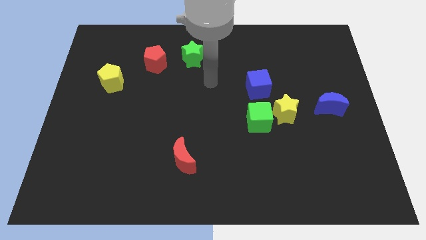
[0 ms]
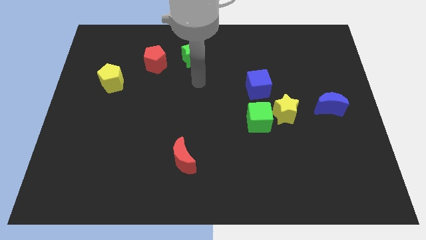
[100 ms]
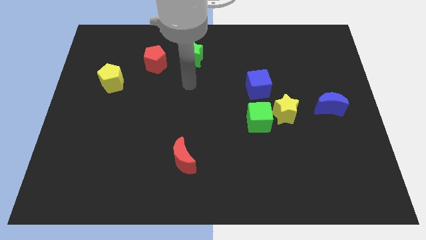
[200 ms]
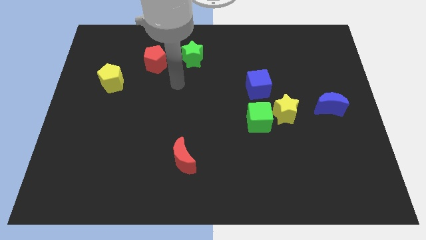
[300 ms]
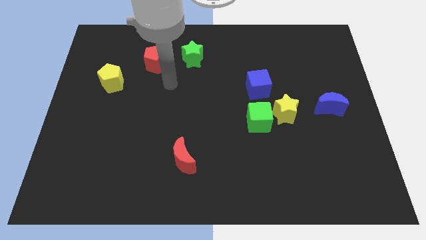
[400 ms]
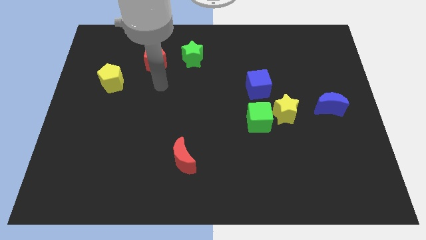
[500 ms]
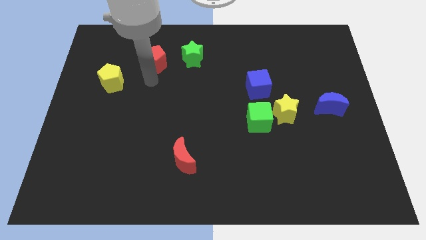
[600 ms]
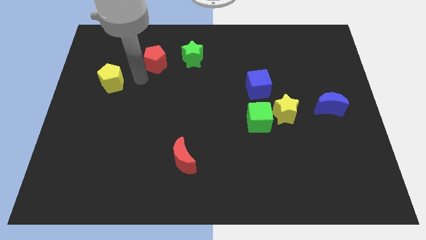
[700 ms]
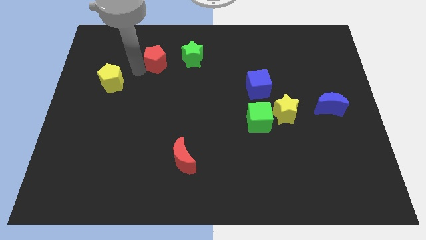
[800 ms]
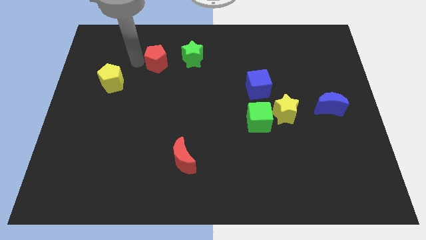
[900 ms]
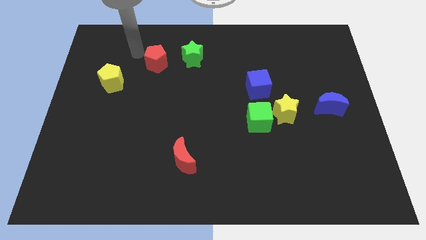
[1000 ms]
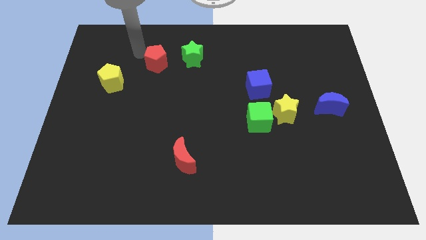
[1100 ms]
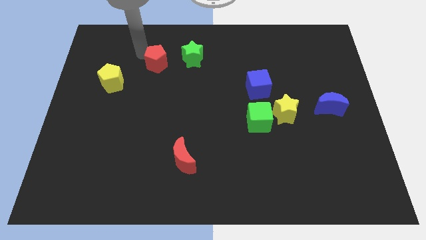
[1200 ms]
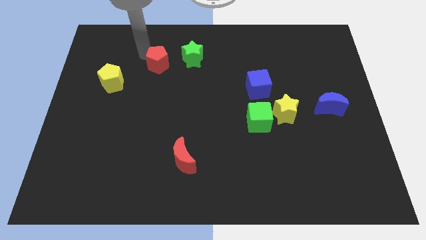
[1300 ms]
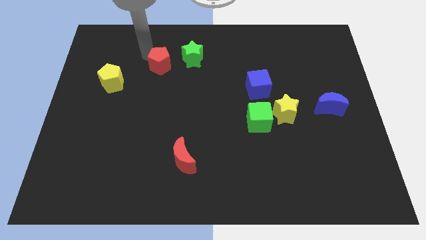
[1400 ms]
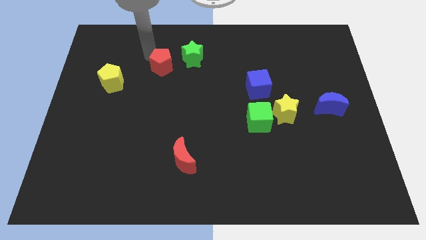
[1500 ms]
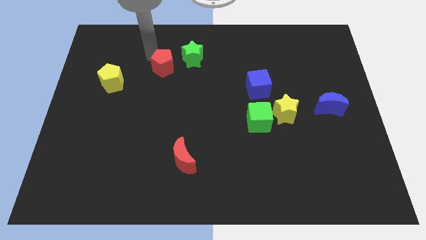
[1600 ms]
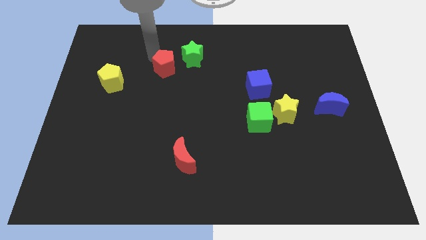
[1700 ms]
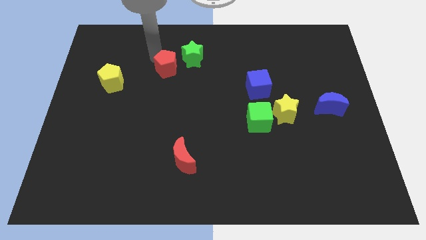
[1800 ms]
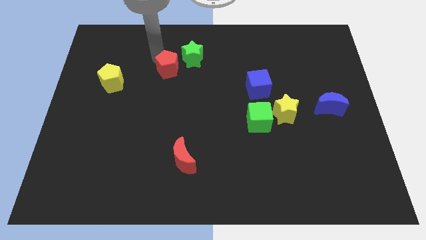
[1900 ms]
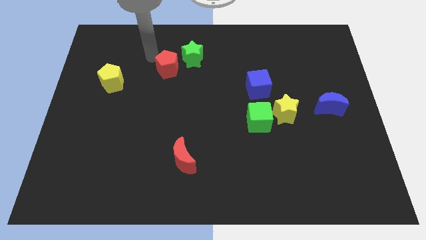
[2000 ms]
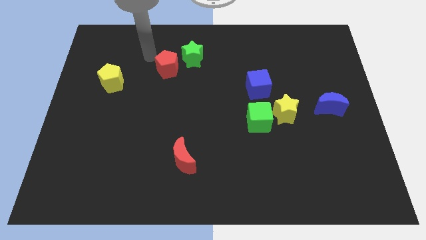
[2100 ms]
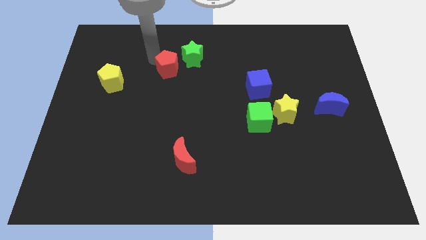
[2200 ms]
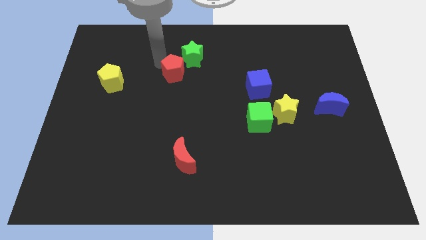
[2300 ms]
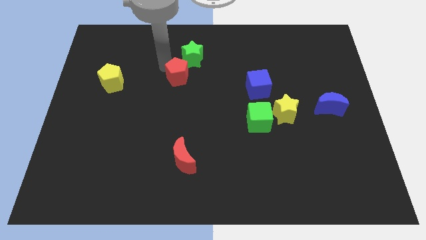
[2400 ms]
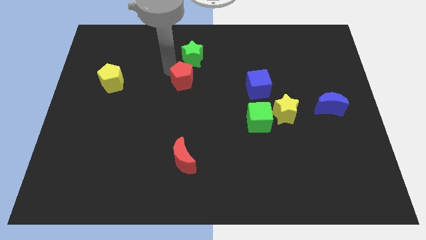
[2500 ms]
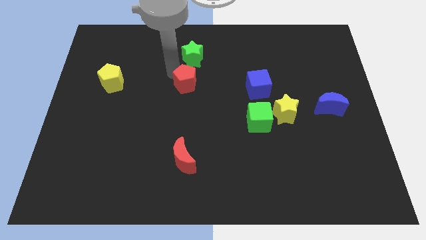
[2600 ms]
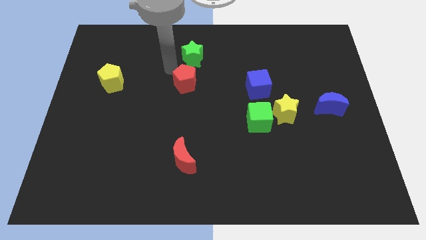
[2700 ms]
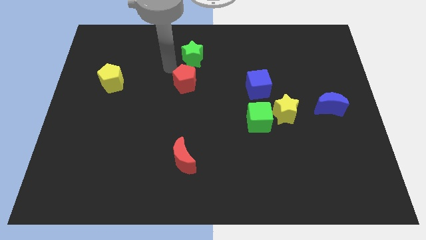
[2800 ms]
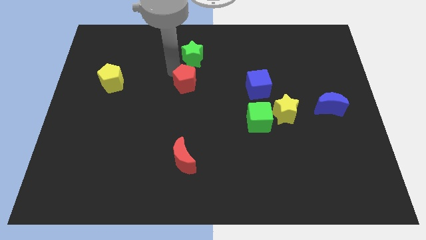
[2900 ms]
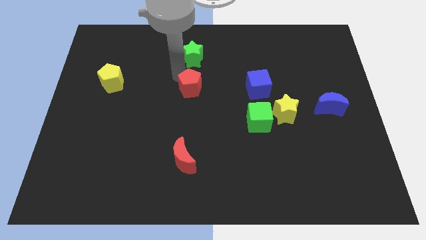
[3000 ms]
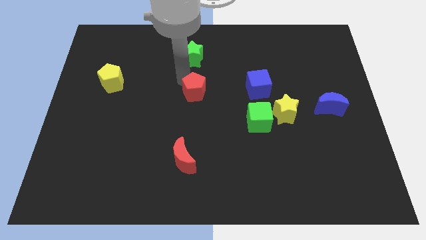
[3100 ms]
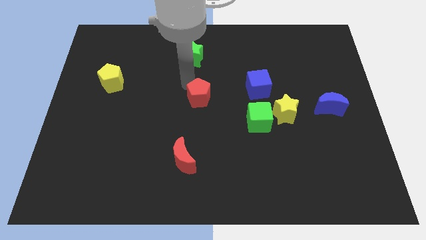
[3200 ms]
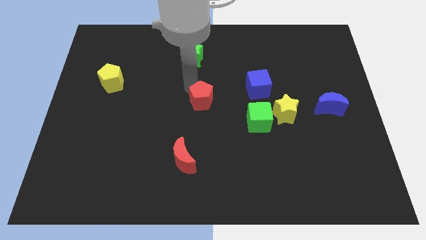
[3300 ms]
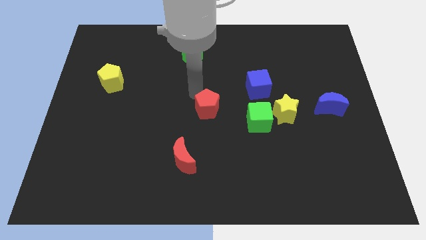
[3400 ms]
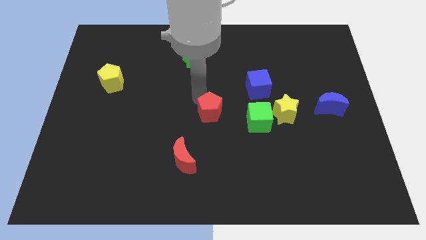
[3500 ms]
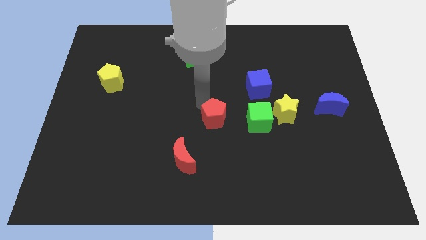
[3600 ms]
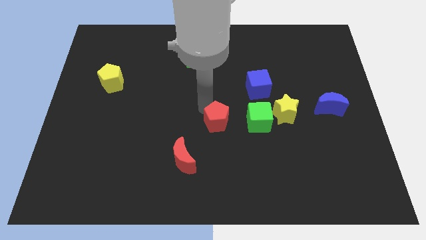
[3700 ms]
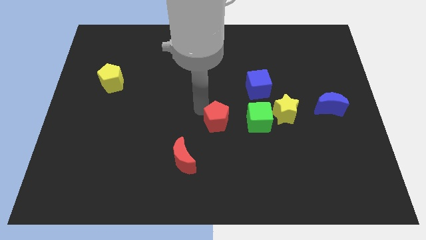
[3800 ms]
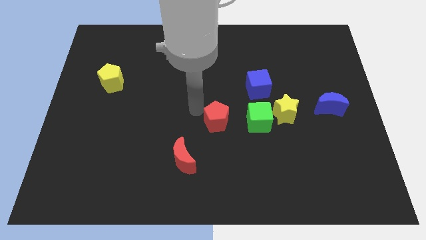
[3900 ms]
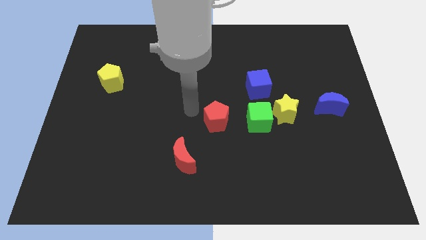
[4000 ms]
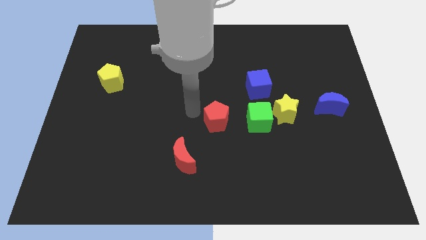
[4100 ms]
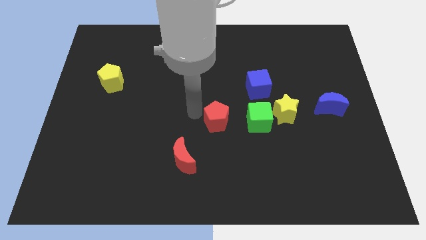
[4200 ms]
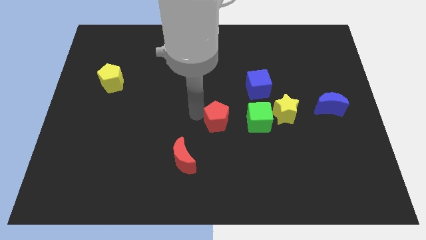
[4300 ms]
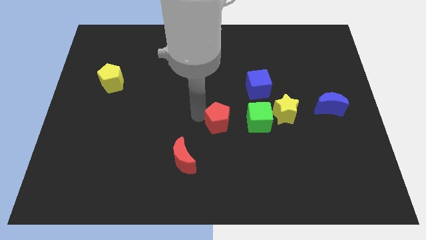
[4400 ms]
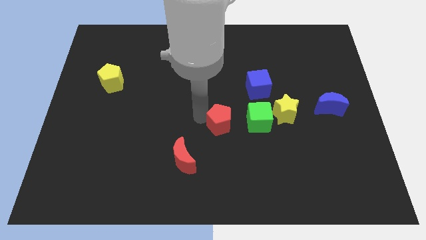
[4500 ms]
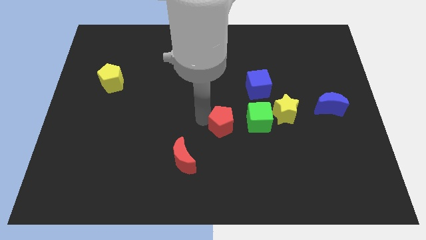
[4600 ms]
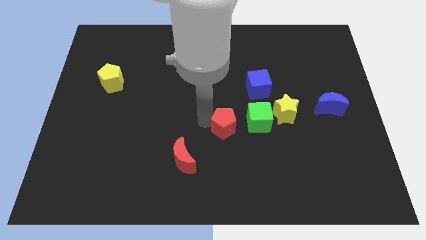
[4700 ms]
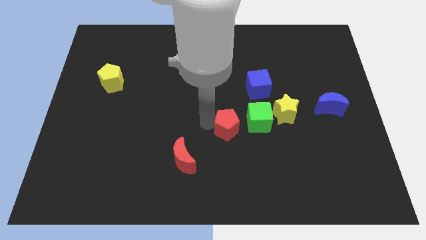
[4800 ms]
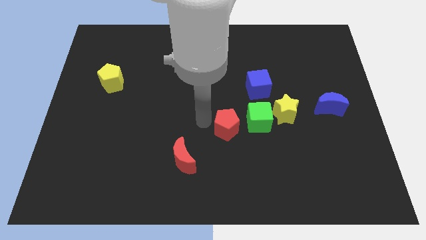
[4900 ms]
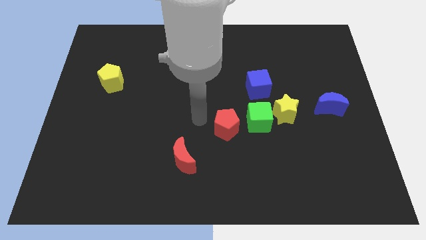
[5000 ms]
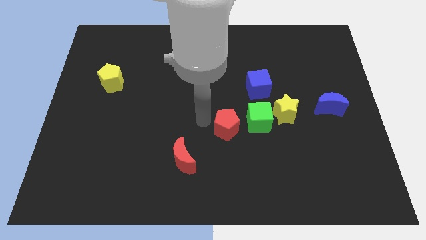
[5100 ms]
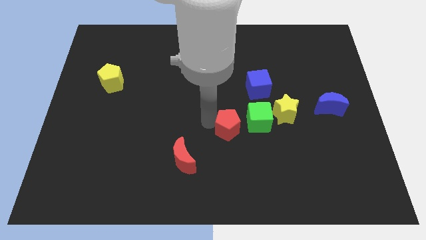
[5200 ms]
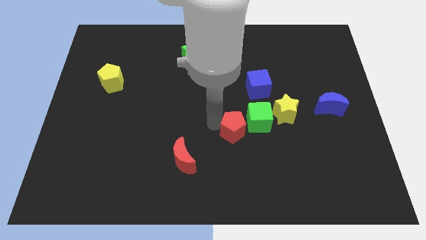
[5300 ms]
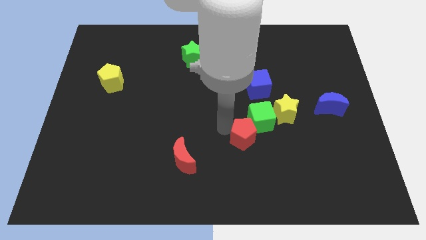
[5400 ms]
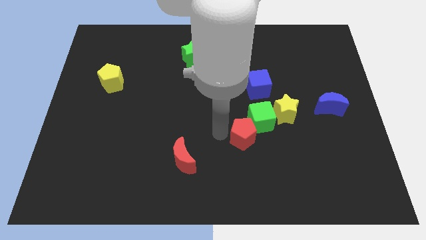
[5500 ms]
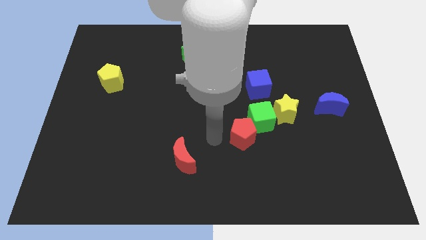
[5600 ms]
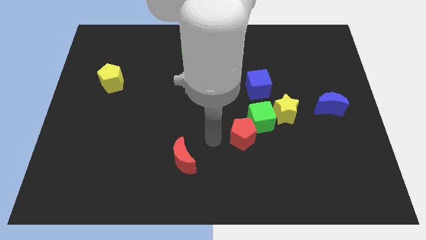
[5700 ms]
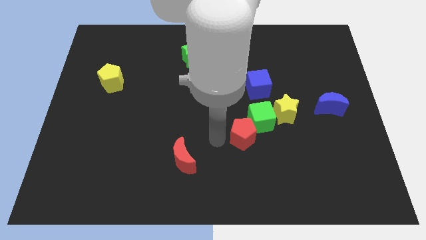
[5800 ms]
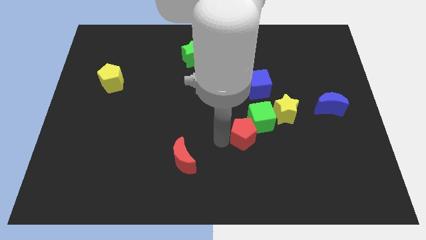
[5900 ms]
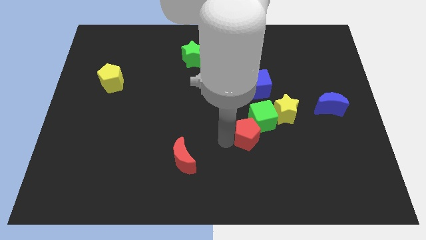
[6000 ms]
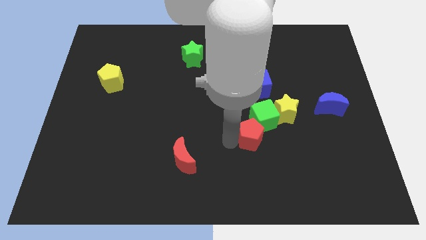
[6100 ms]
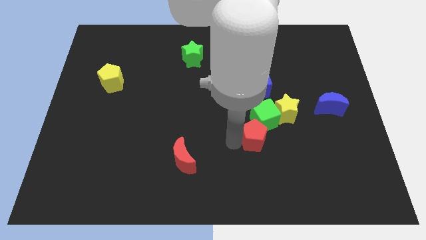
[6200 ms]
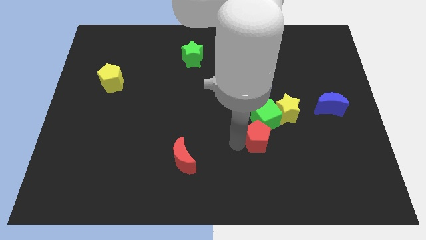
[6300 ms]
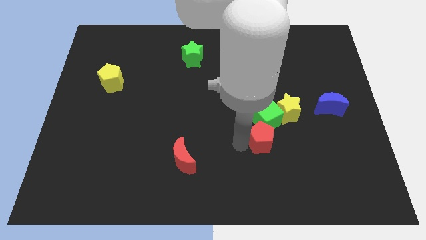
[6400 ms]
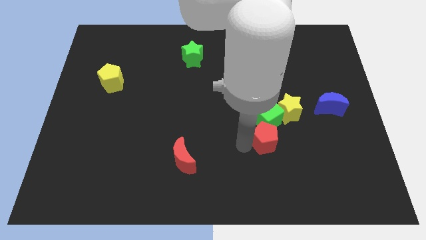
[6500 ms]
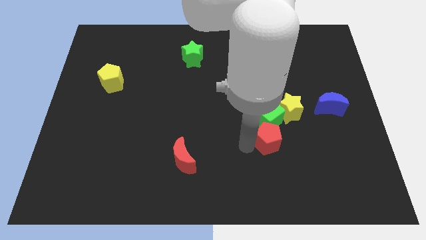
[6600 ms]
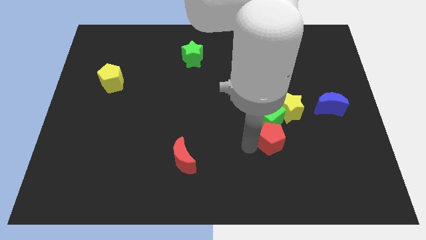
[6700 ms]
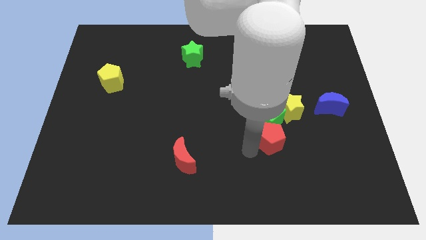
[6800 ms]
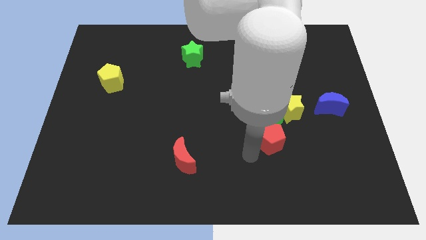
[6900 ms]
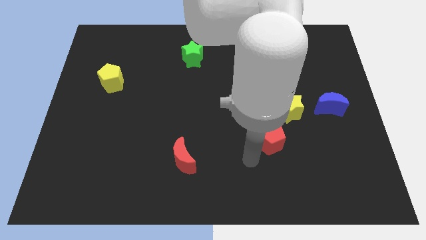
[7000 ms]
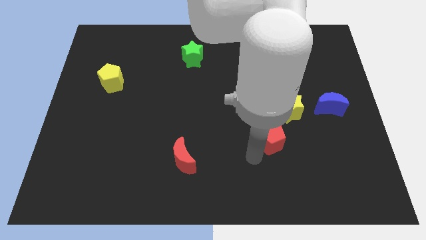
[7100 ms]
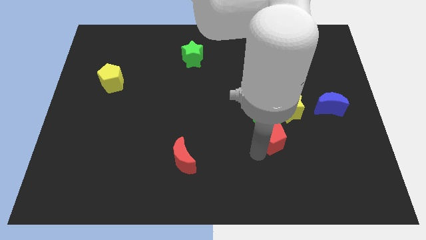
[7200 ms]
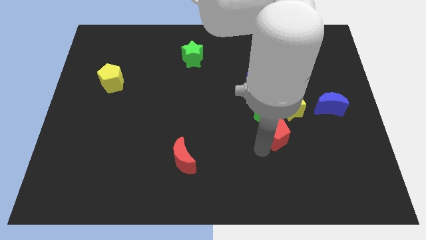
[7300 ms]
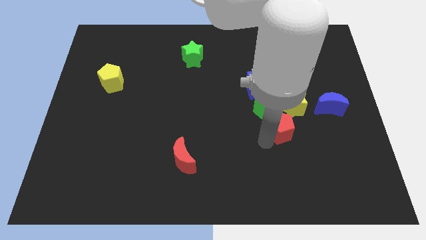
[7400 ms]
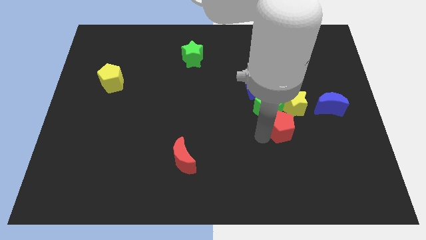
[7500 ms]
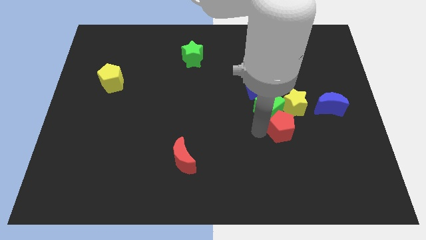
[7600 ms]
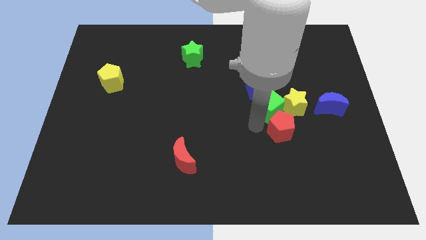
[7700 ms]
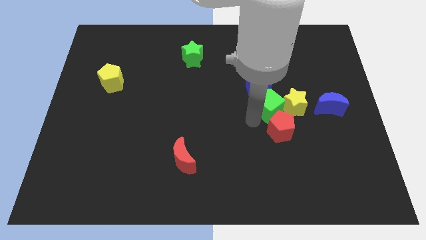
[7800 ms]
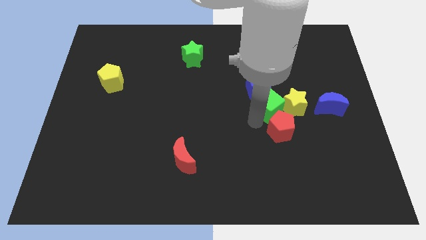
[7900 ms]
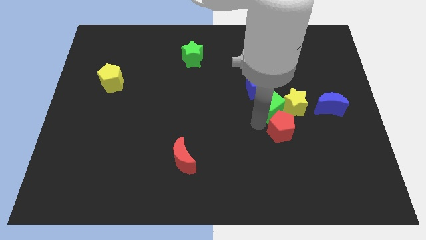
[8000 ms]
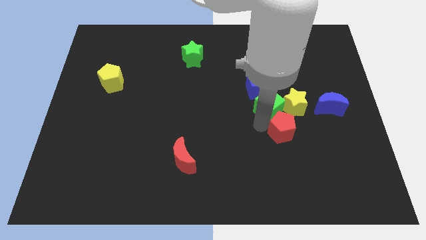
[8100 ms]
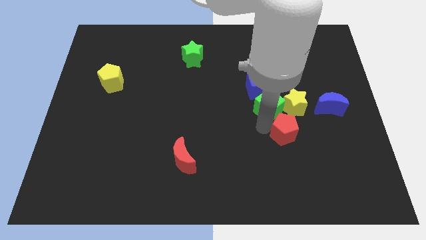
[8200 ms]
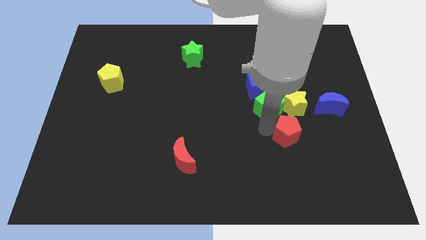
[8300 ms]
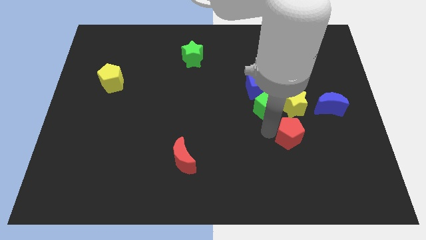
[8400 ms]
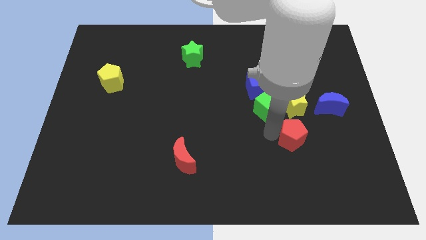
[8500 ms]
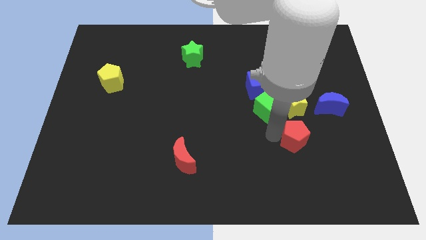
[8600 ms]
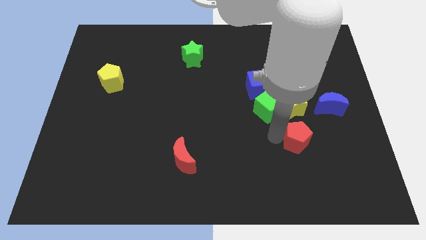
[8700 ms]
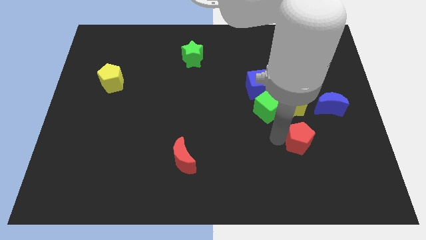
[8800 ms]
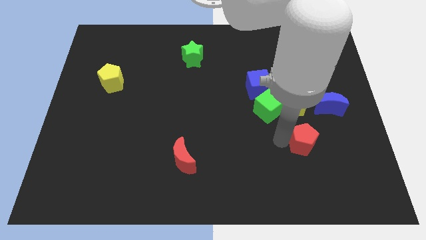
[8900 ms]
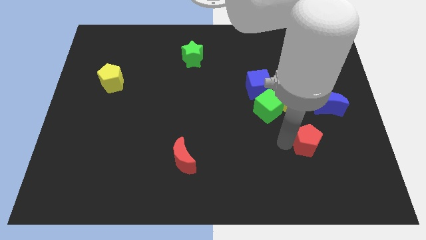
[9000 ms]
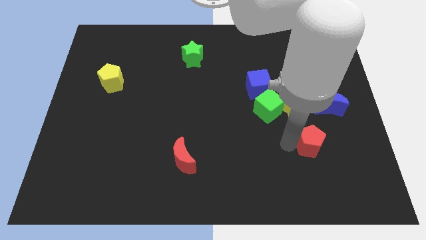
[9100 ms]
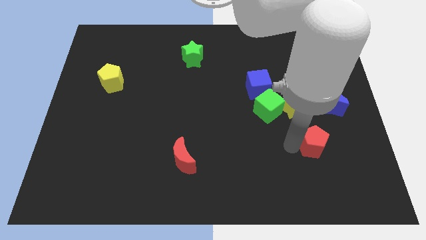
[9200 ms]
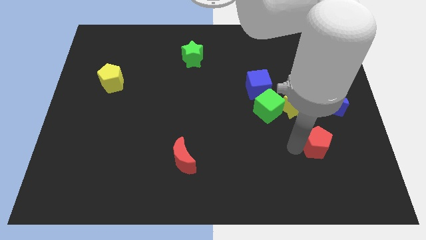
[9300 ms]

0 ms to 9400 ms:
put the red pentagon to the bottom side of the blue moon
